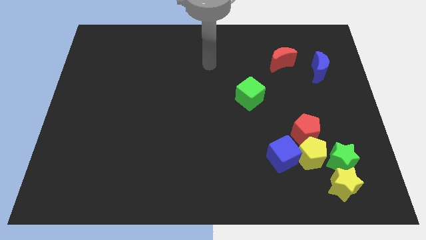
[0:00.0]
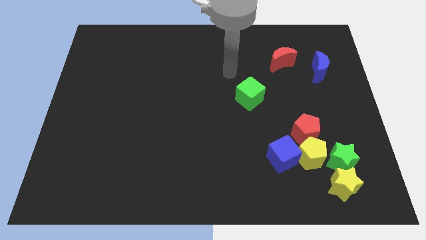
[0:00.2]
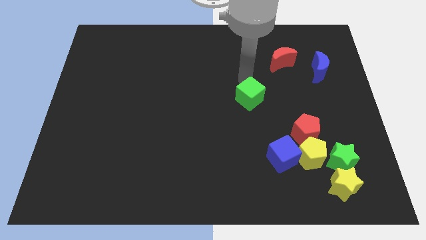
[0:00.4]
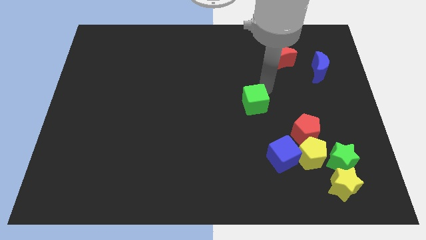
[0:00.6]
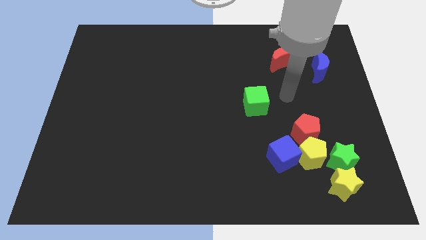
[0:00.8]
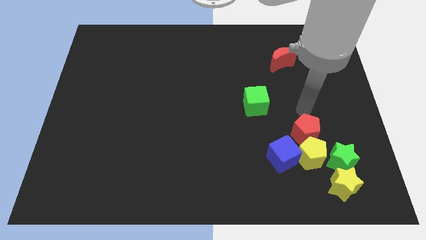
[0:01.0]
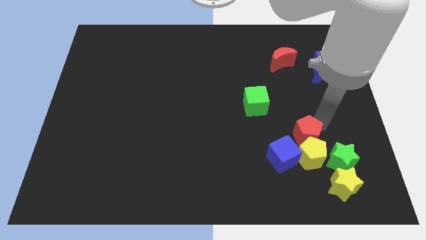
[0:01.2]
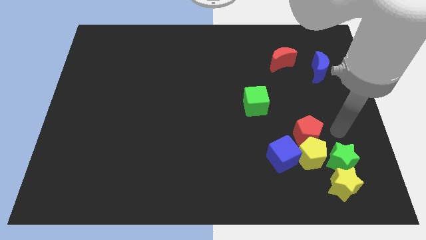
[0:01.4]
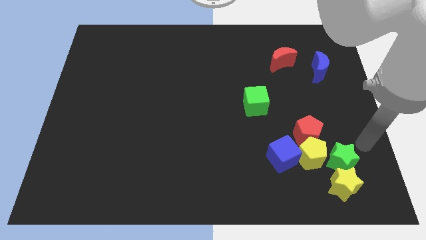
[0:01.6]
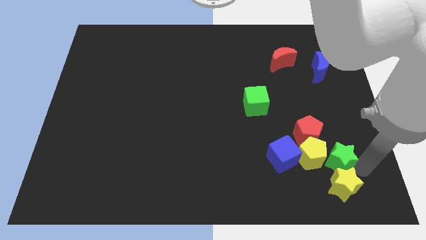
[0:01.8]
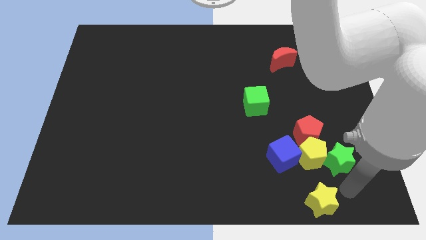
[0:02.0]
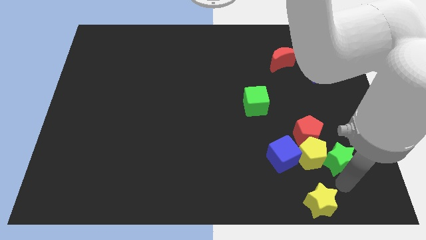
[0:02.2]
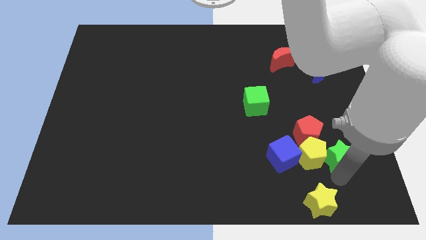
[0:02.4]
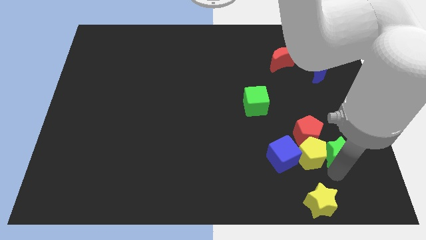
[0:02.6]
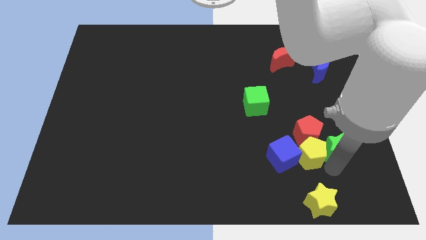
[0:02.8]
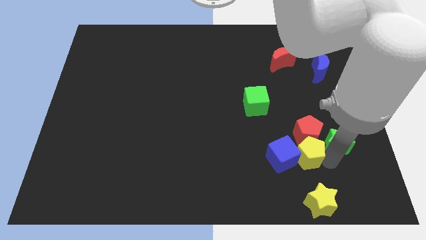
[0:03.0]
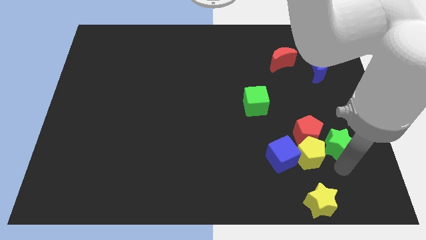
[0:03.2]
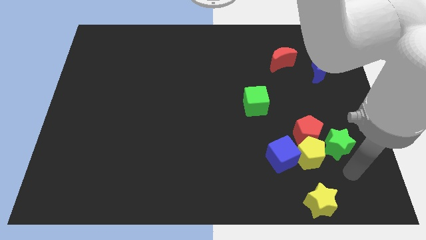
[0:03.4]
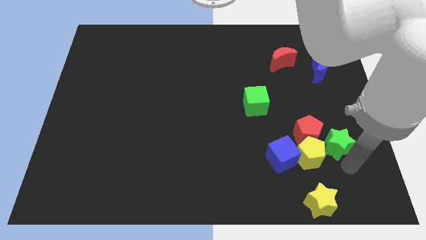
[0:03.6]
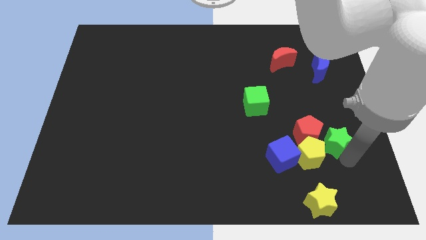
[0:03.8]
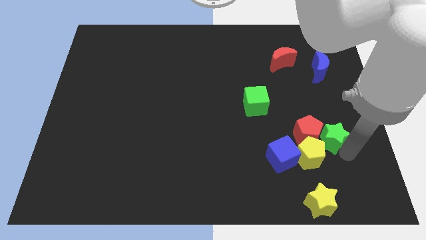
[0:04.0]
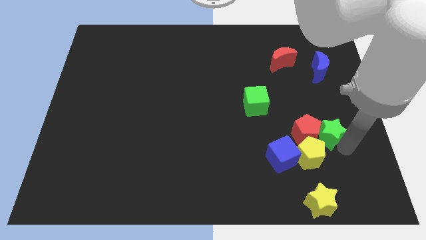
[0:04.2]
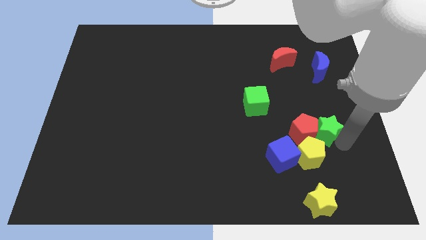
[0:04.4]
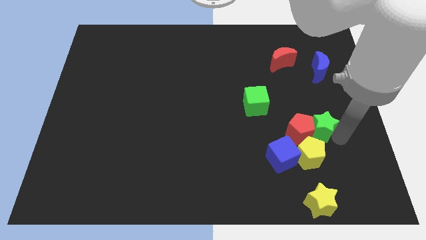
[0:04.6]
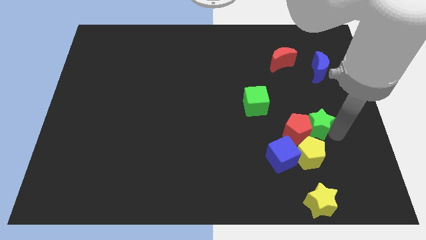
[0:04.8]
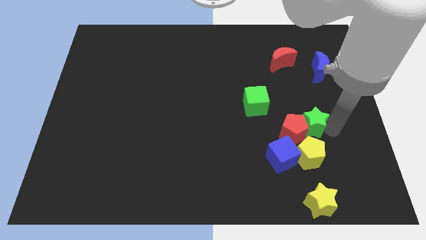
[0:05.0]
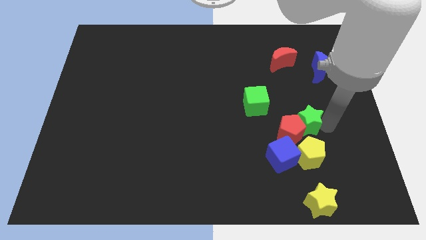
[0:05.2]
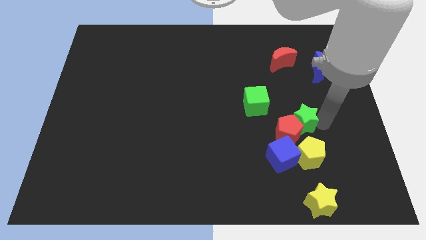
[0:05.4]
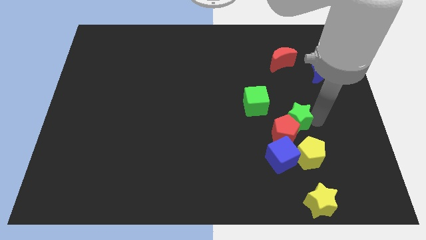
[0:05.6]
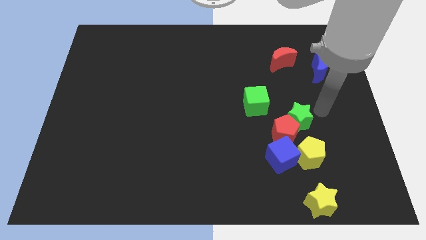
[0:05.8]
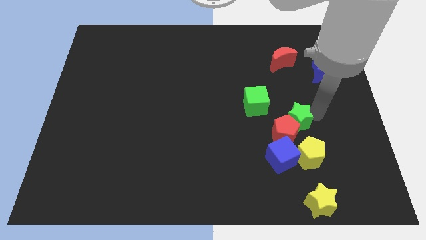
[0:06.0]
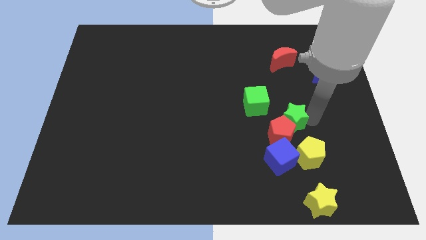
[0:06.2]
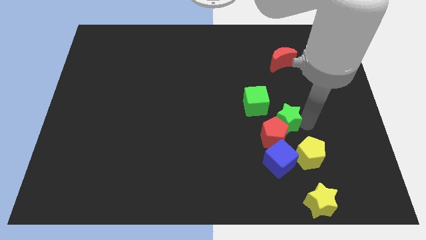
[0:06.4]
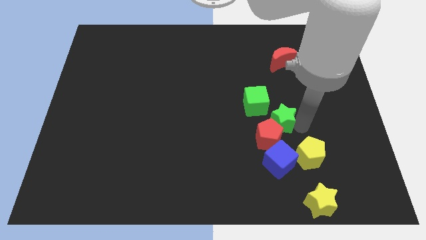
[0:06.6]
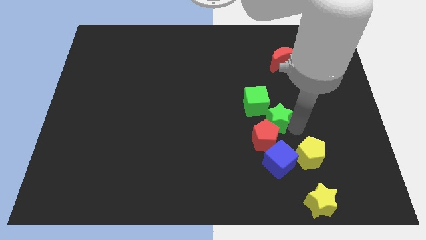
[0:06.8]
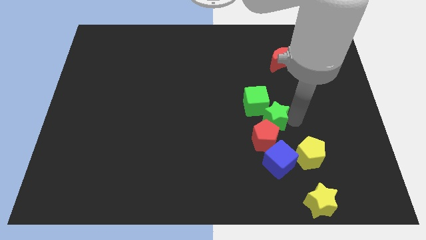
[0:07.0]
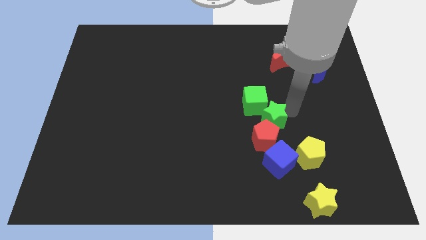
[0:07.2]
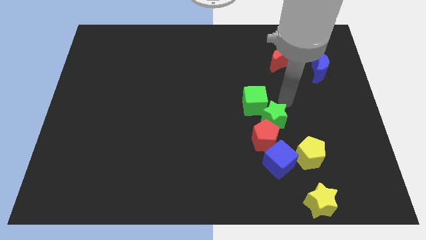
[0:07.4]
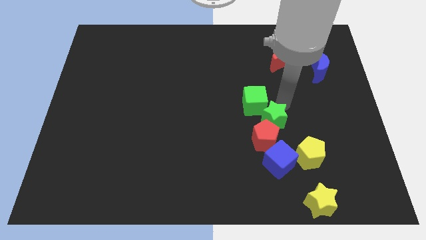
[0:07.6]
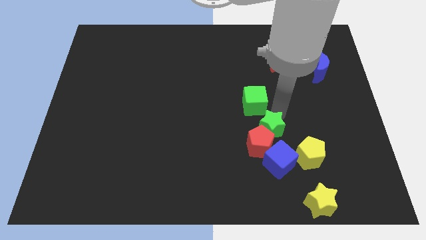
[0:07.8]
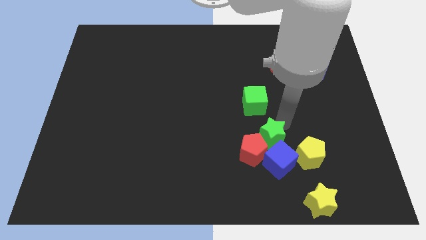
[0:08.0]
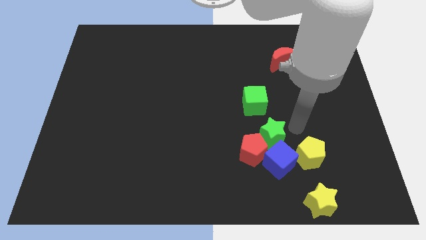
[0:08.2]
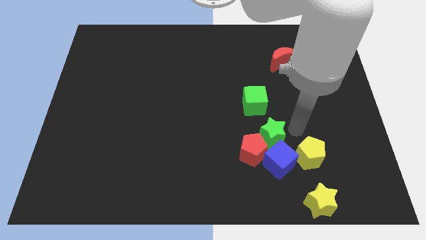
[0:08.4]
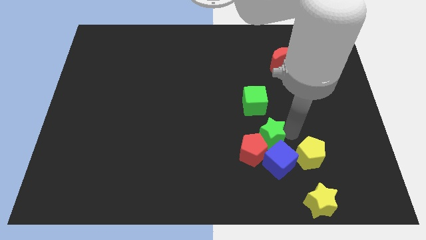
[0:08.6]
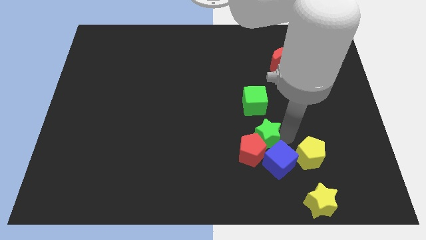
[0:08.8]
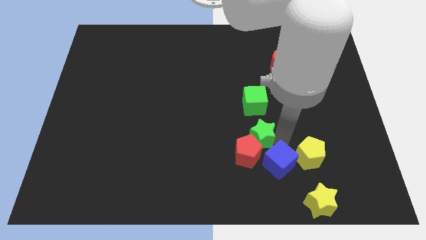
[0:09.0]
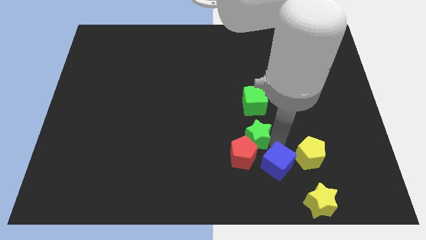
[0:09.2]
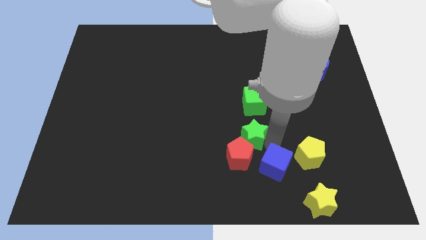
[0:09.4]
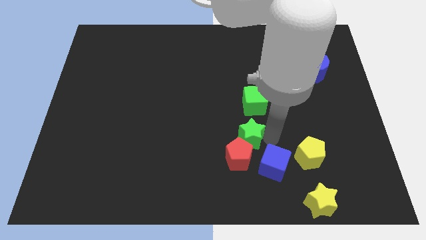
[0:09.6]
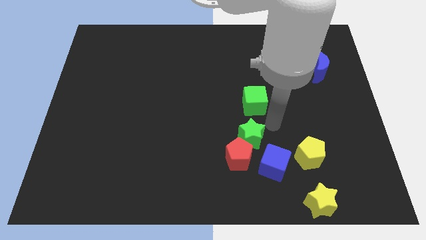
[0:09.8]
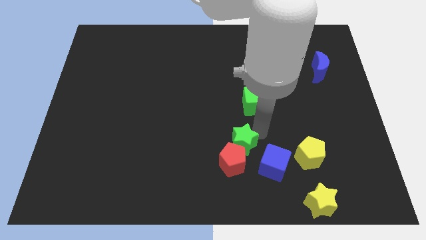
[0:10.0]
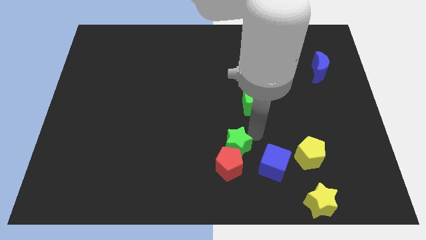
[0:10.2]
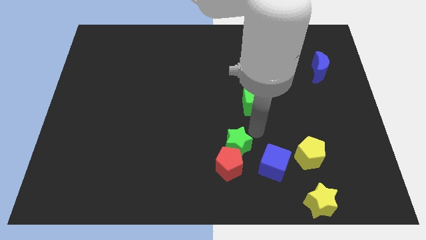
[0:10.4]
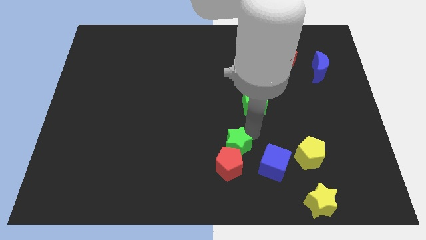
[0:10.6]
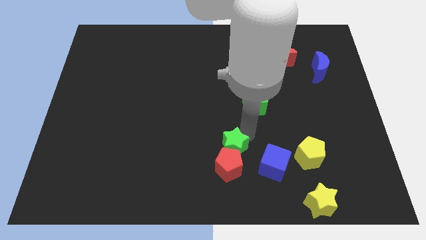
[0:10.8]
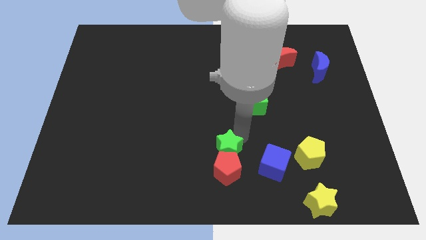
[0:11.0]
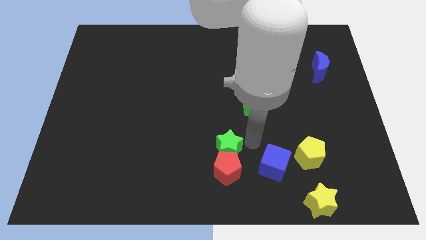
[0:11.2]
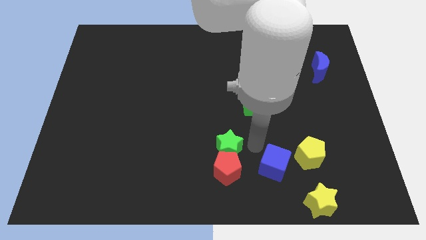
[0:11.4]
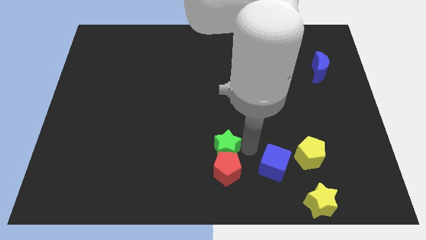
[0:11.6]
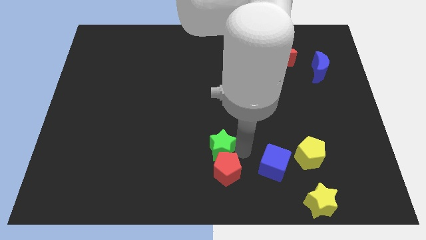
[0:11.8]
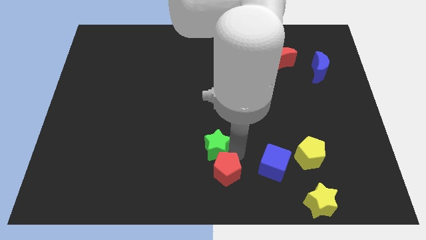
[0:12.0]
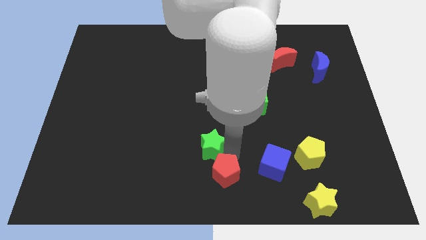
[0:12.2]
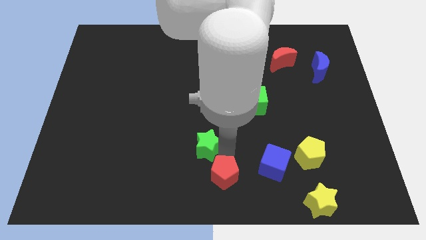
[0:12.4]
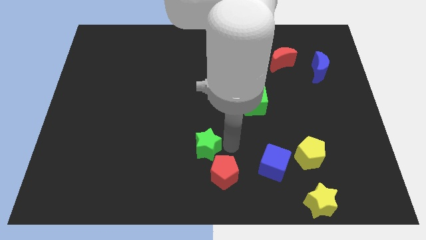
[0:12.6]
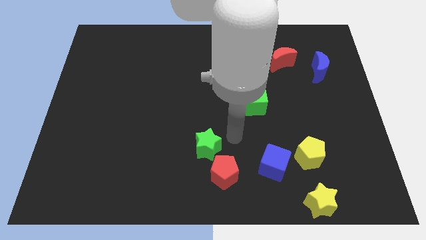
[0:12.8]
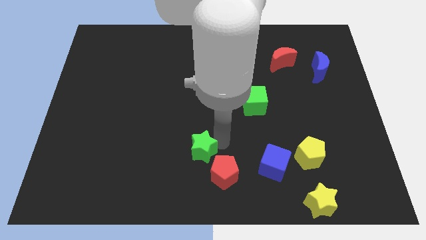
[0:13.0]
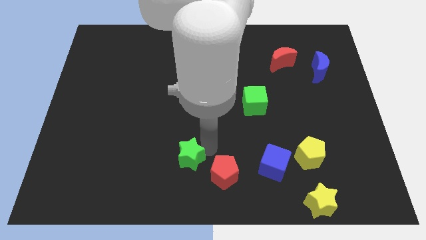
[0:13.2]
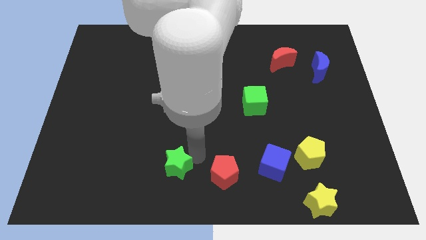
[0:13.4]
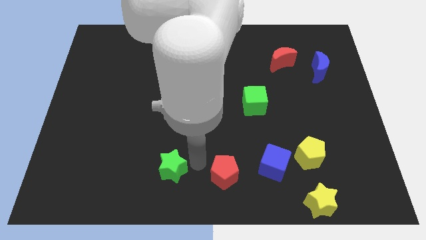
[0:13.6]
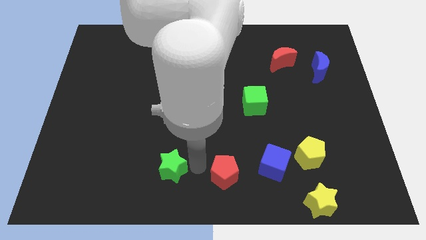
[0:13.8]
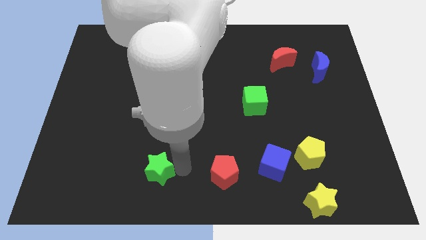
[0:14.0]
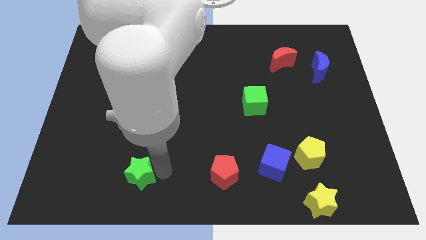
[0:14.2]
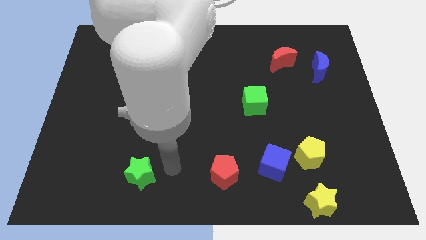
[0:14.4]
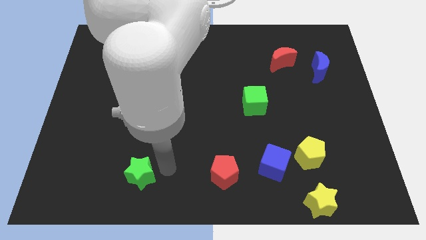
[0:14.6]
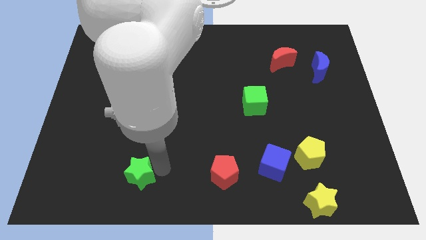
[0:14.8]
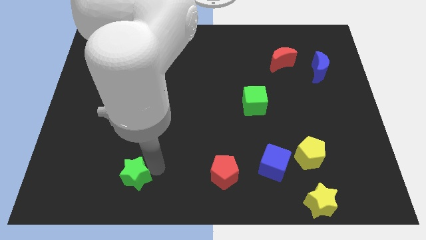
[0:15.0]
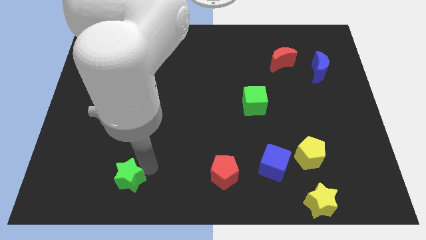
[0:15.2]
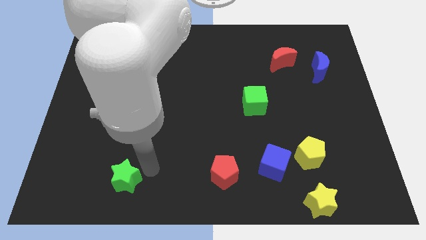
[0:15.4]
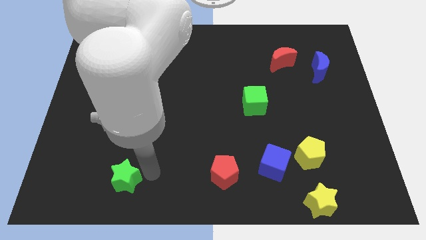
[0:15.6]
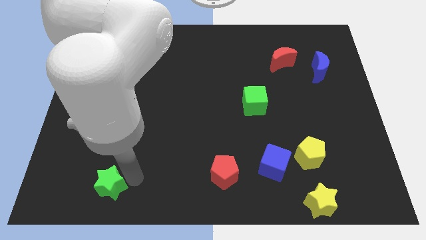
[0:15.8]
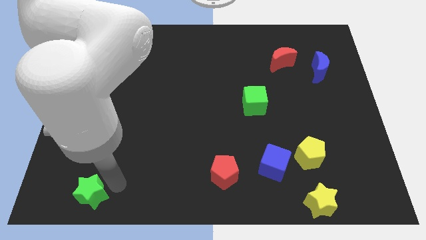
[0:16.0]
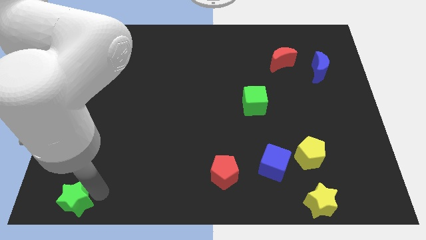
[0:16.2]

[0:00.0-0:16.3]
push the green star to the bottom left corner
